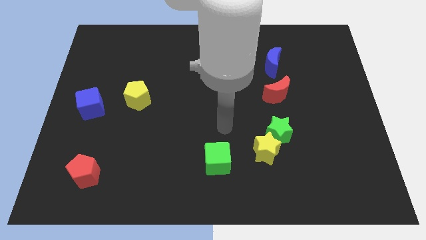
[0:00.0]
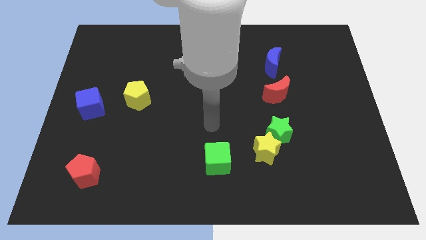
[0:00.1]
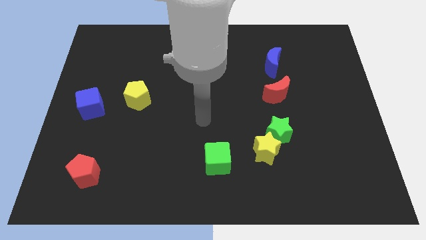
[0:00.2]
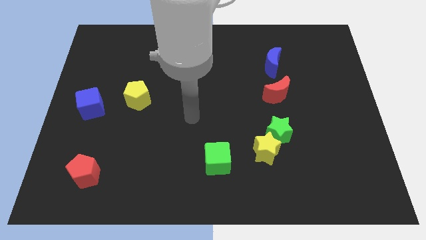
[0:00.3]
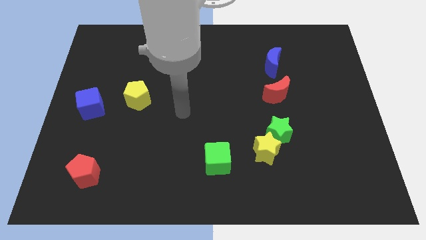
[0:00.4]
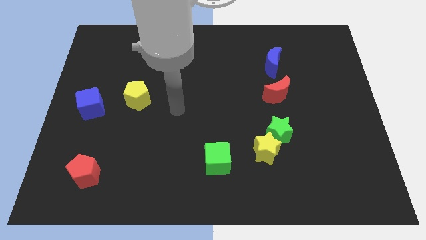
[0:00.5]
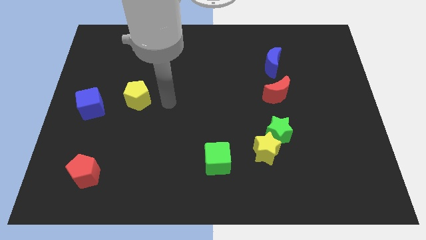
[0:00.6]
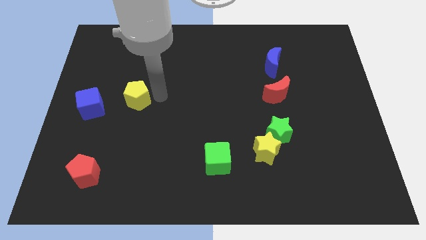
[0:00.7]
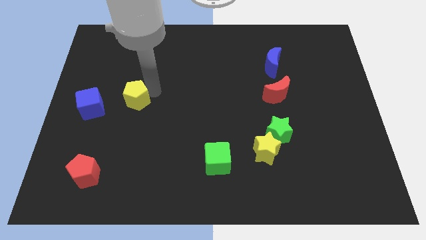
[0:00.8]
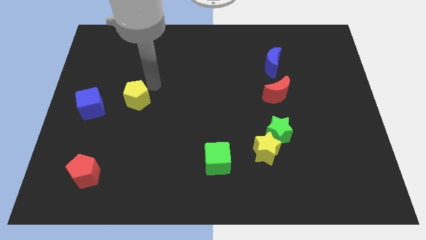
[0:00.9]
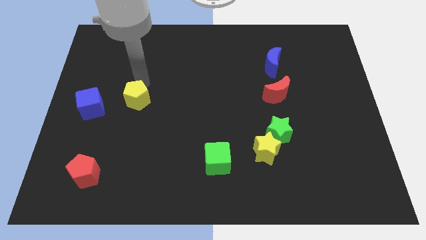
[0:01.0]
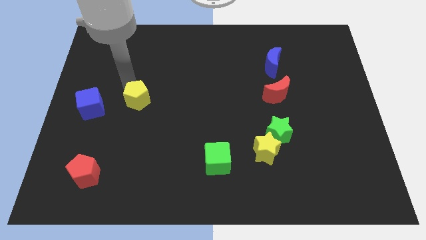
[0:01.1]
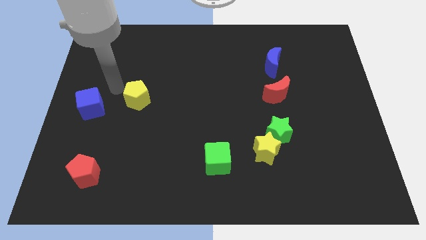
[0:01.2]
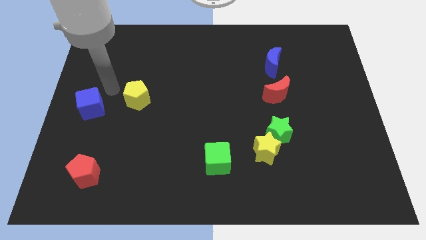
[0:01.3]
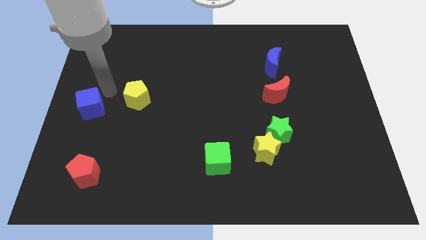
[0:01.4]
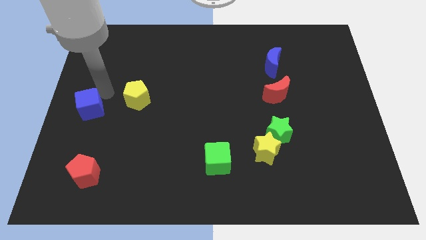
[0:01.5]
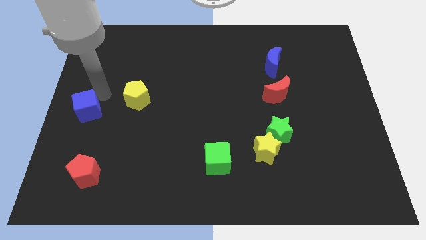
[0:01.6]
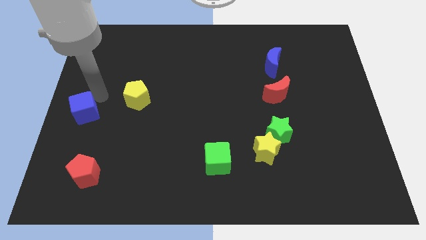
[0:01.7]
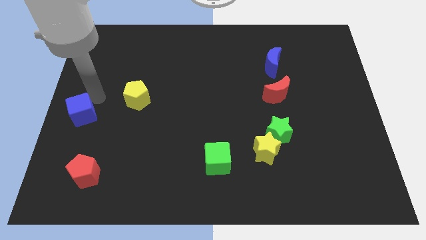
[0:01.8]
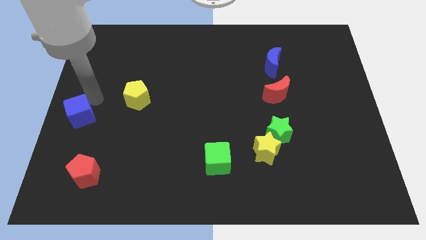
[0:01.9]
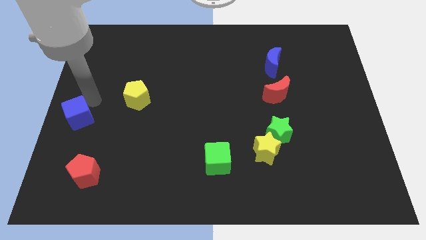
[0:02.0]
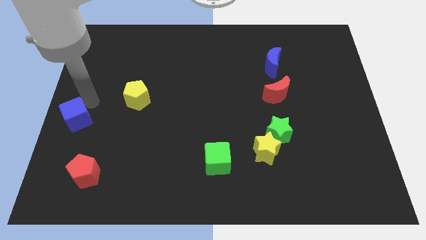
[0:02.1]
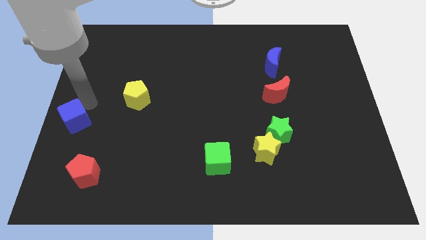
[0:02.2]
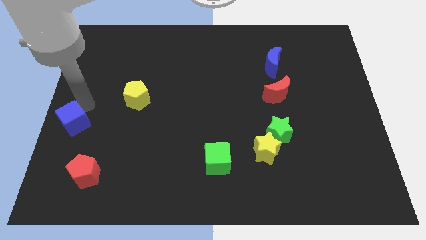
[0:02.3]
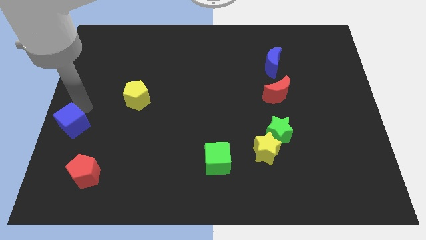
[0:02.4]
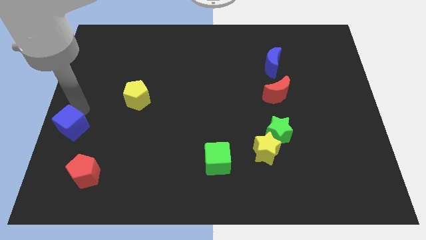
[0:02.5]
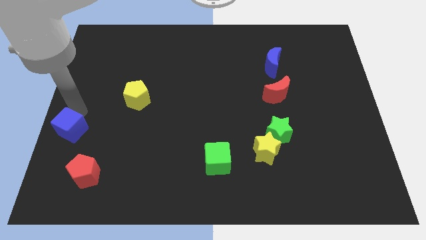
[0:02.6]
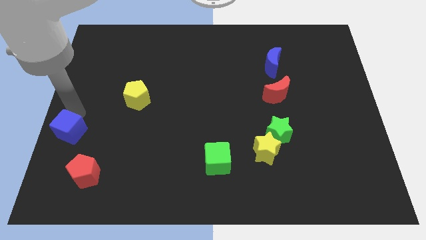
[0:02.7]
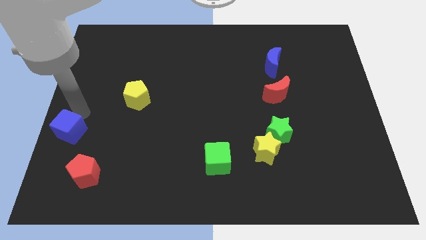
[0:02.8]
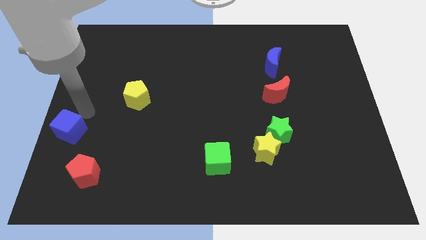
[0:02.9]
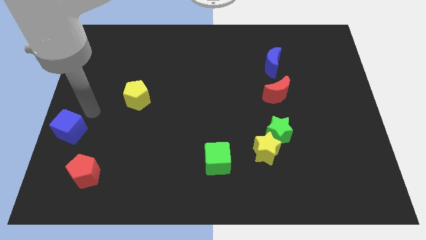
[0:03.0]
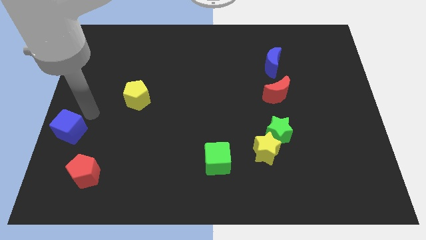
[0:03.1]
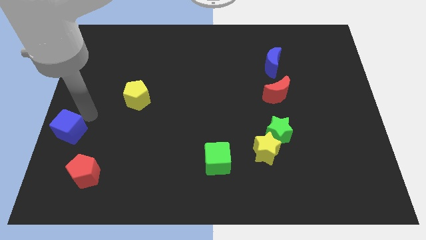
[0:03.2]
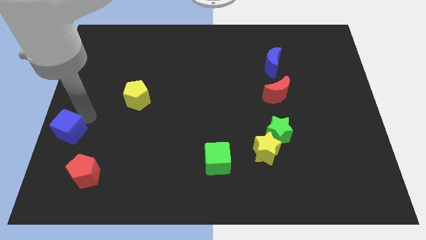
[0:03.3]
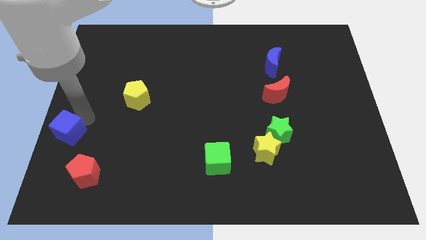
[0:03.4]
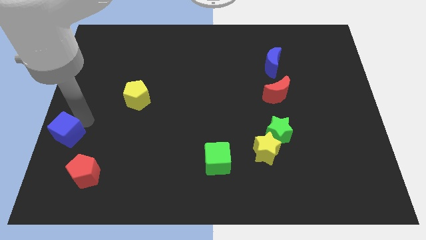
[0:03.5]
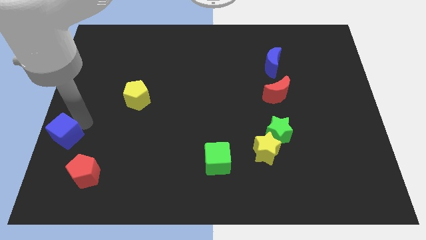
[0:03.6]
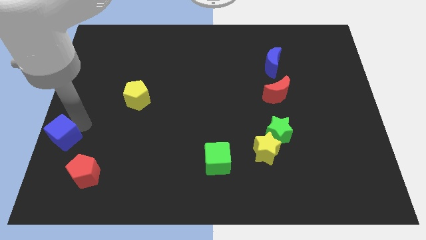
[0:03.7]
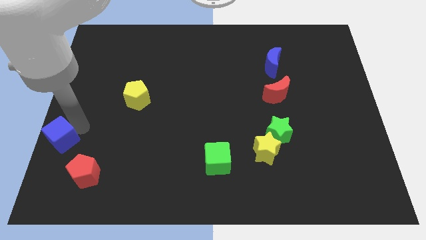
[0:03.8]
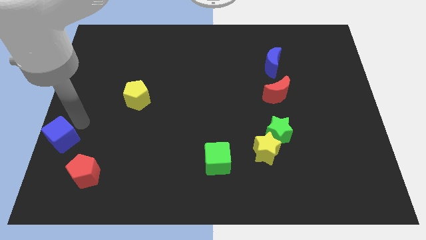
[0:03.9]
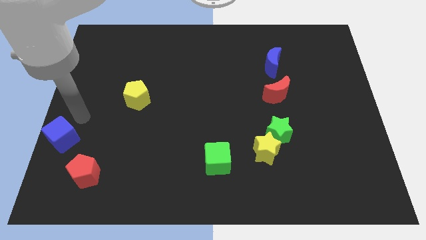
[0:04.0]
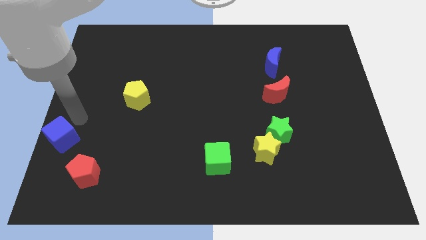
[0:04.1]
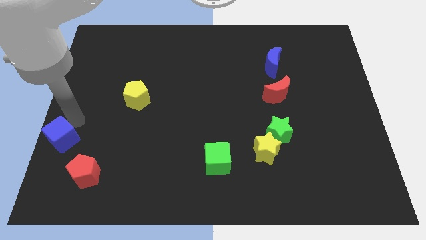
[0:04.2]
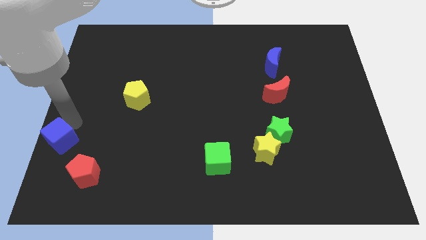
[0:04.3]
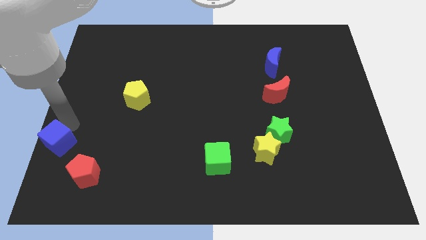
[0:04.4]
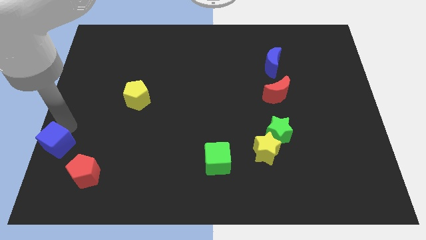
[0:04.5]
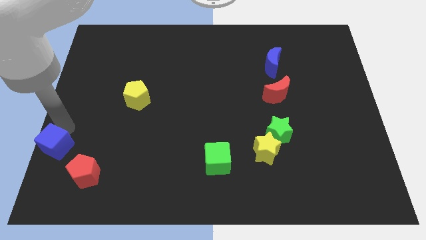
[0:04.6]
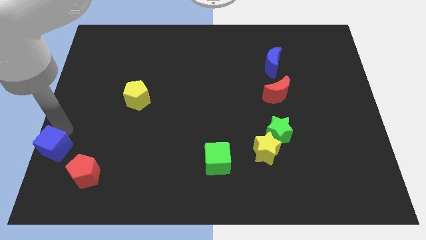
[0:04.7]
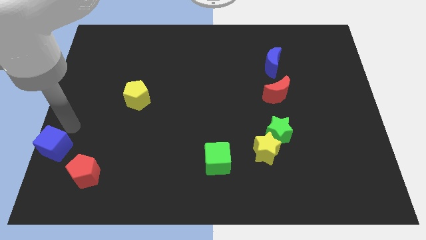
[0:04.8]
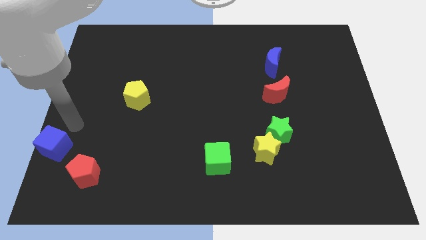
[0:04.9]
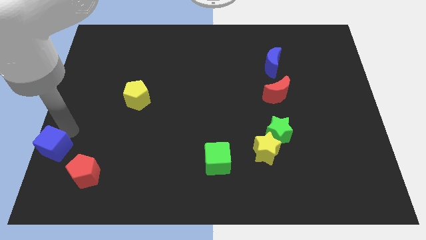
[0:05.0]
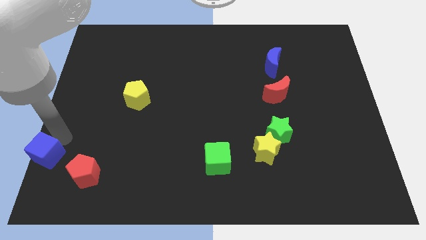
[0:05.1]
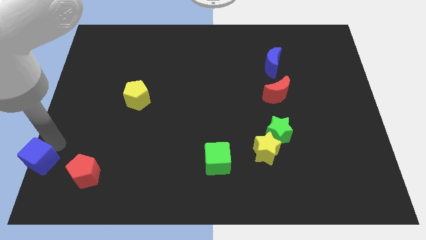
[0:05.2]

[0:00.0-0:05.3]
slide the blue cube to the bottom left
